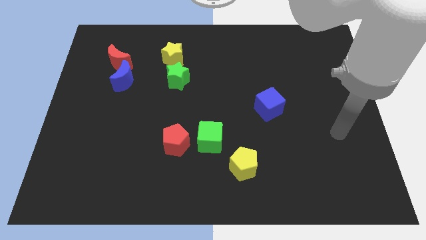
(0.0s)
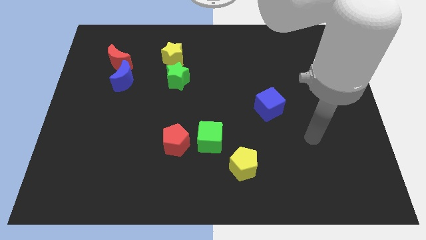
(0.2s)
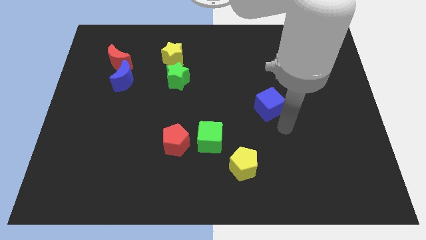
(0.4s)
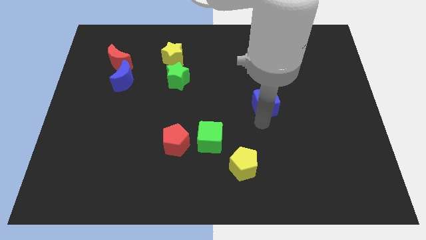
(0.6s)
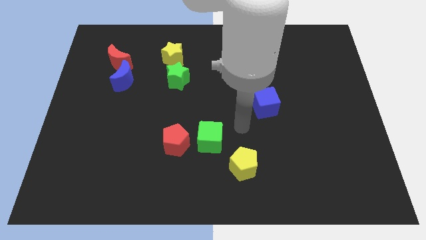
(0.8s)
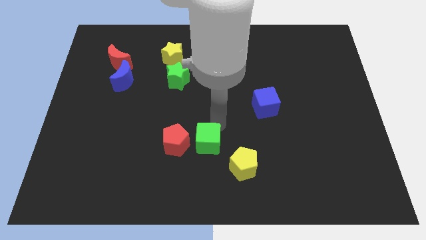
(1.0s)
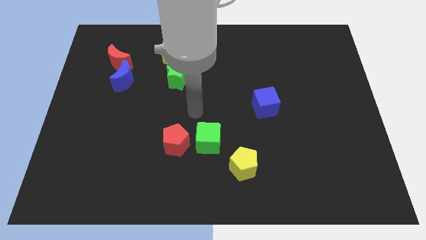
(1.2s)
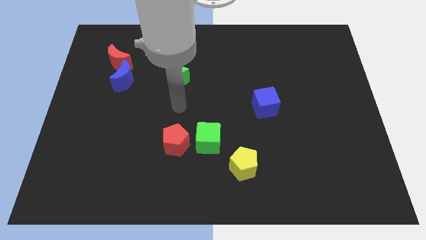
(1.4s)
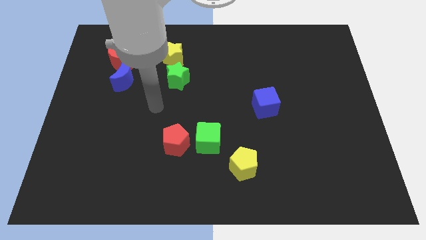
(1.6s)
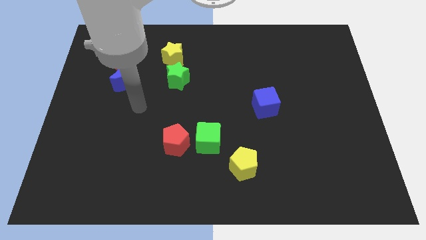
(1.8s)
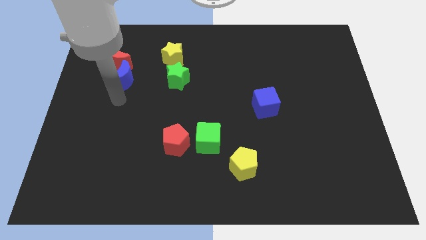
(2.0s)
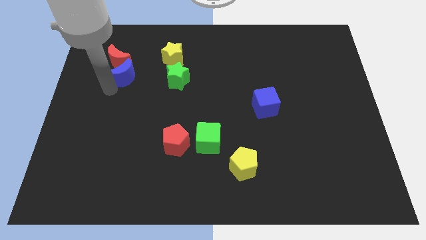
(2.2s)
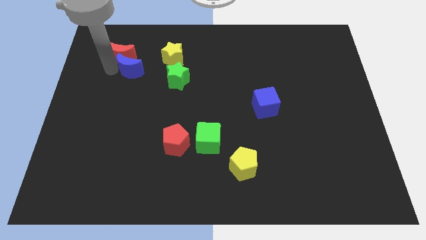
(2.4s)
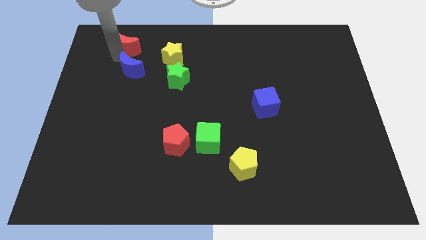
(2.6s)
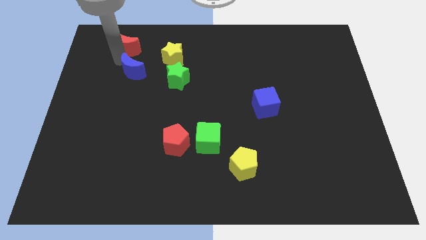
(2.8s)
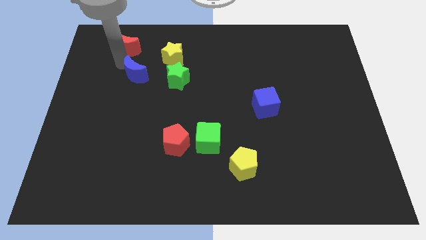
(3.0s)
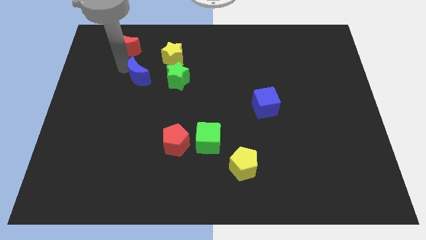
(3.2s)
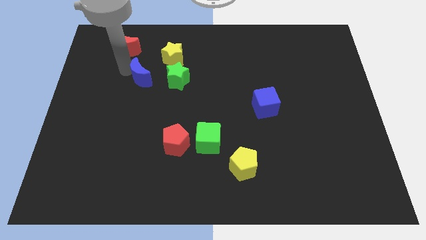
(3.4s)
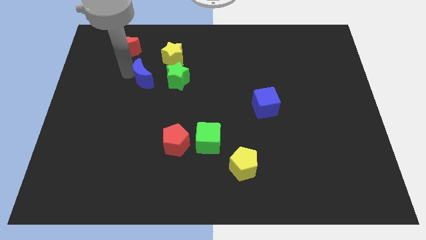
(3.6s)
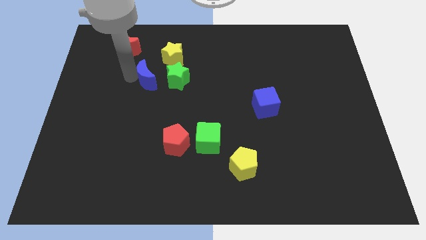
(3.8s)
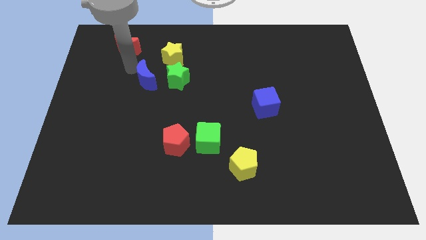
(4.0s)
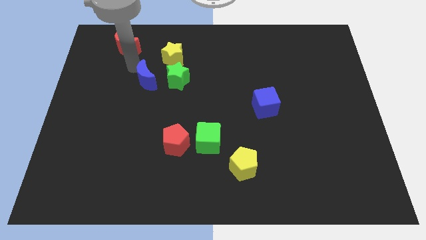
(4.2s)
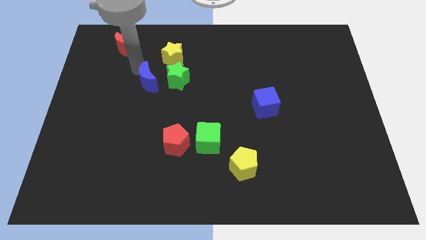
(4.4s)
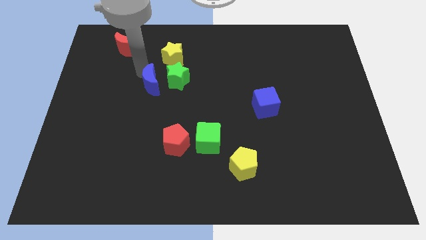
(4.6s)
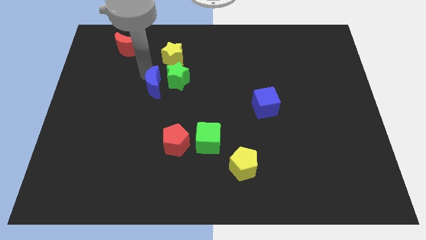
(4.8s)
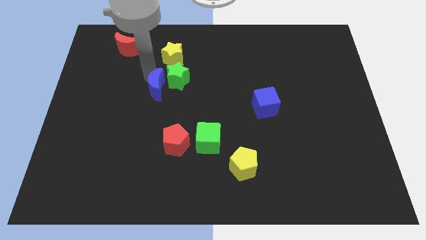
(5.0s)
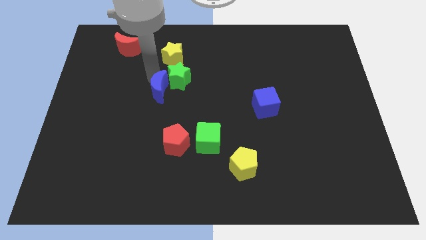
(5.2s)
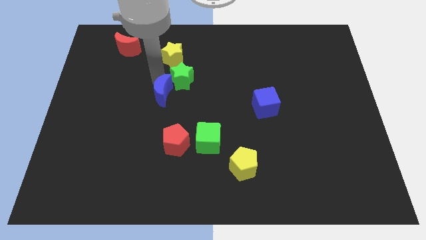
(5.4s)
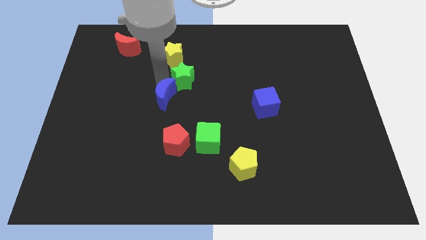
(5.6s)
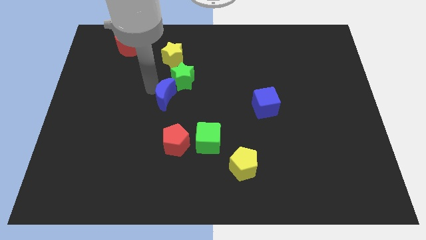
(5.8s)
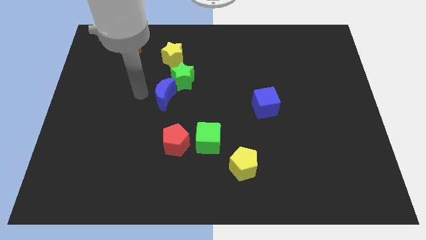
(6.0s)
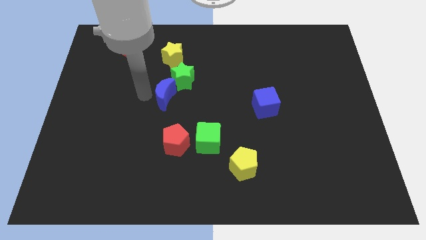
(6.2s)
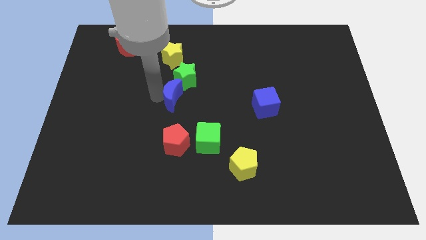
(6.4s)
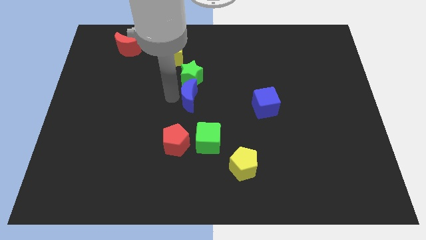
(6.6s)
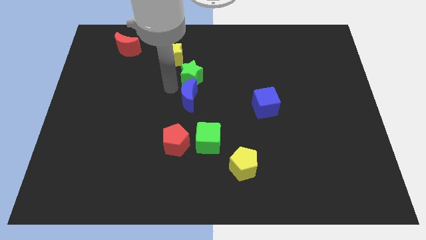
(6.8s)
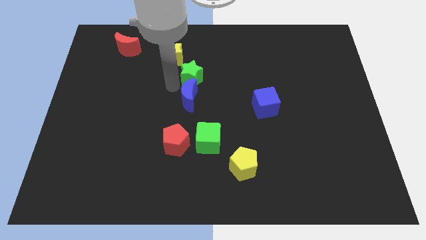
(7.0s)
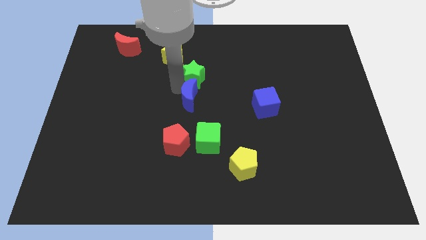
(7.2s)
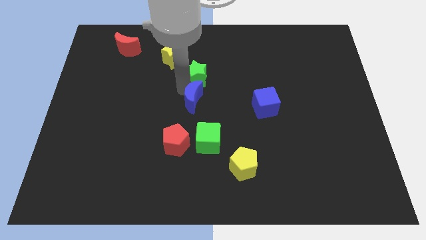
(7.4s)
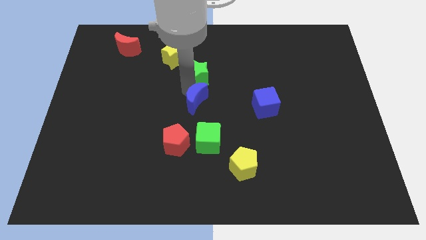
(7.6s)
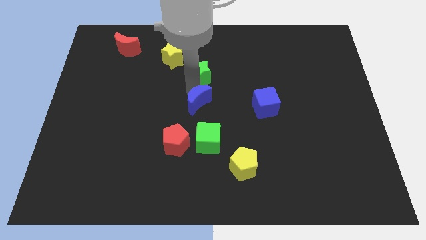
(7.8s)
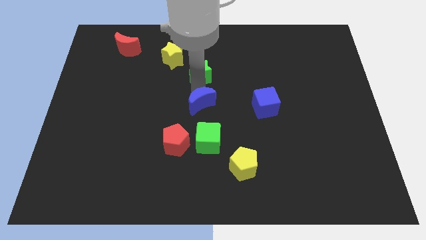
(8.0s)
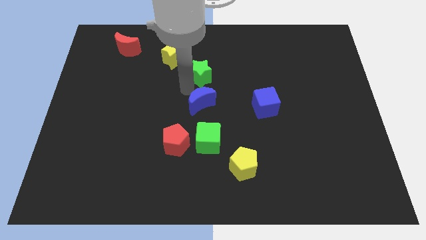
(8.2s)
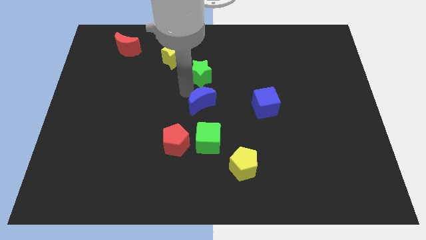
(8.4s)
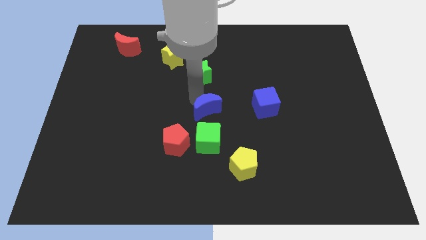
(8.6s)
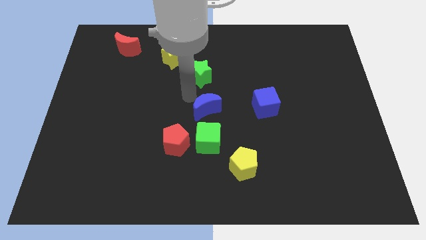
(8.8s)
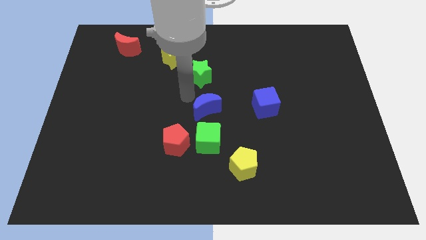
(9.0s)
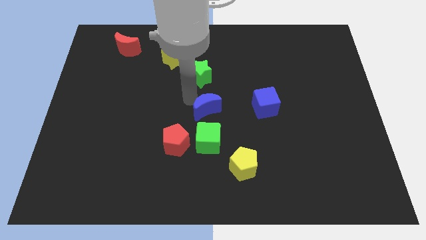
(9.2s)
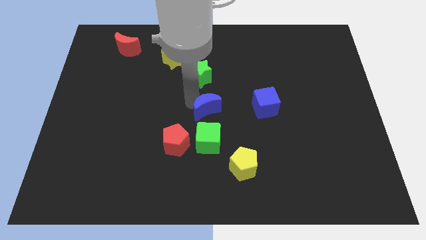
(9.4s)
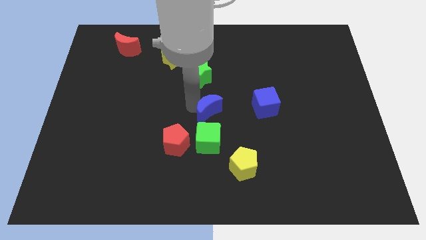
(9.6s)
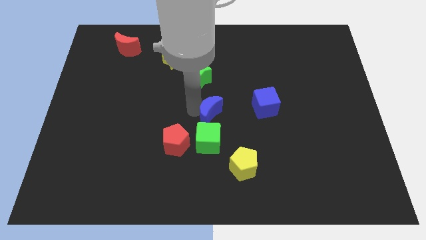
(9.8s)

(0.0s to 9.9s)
slide the blue moon downwards and to the right diagonally

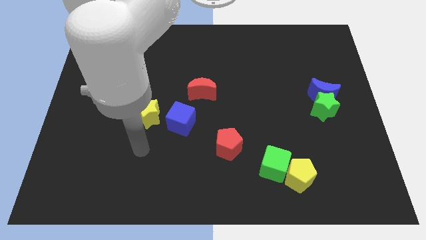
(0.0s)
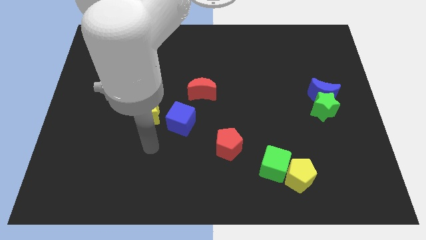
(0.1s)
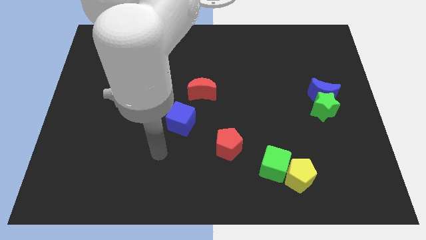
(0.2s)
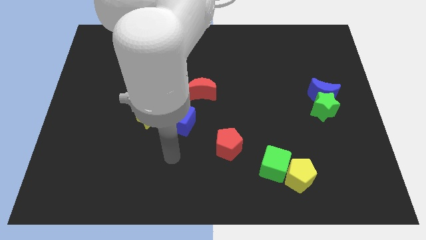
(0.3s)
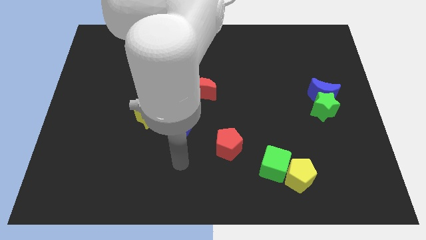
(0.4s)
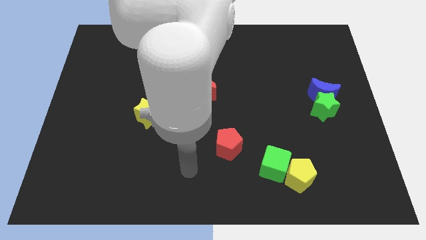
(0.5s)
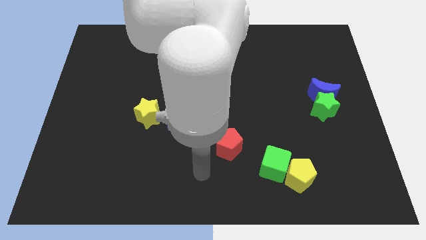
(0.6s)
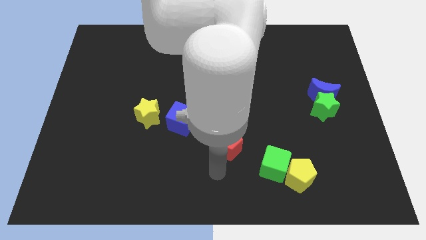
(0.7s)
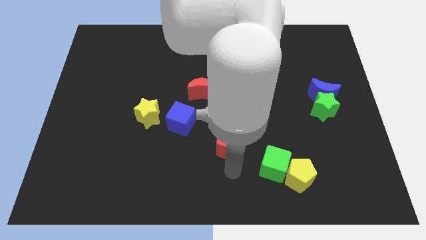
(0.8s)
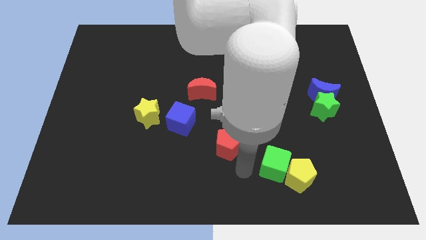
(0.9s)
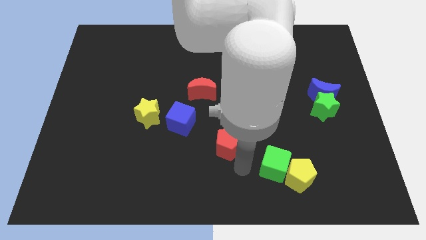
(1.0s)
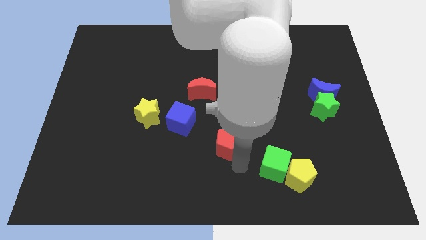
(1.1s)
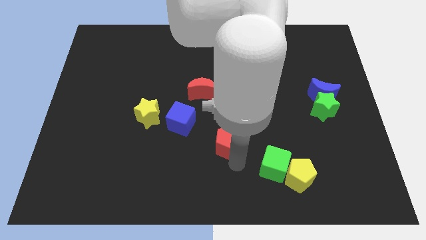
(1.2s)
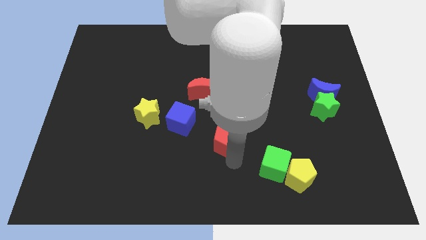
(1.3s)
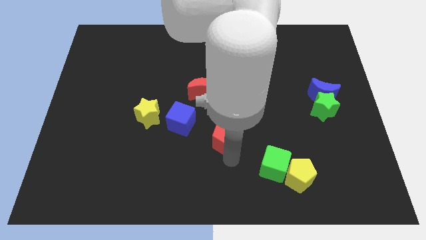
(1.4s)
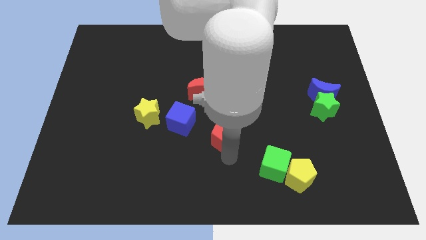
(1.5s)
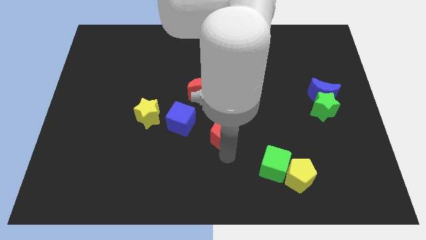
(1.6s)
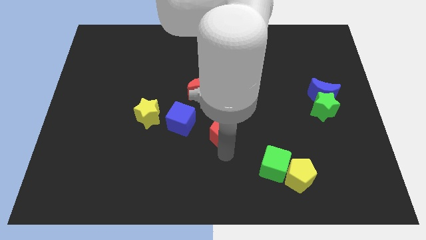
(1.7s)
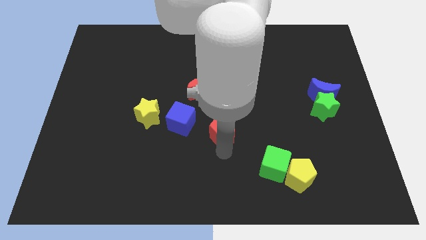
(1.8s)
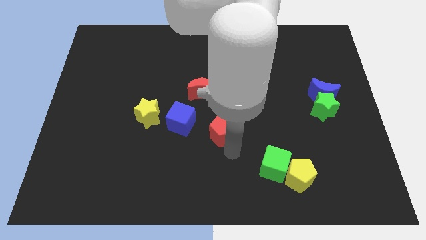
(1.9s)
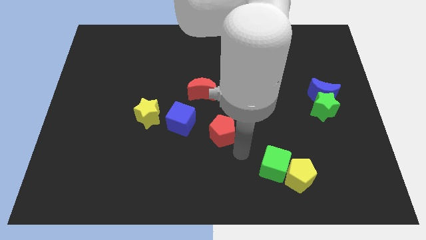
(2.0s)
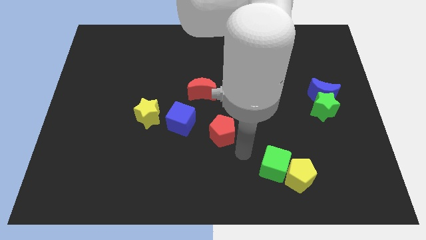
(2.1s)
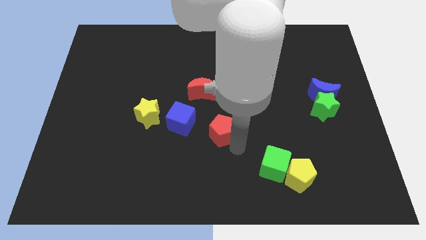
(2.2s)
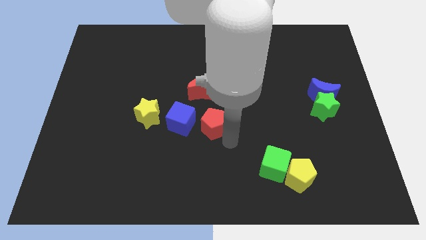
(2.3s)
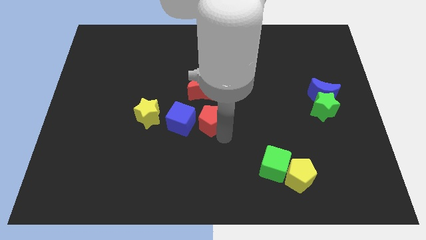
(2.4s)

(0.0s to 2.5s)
slide the red pentagon a little up and then to the left

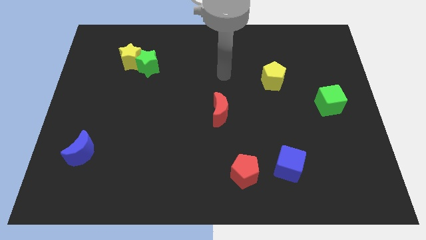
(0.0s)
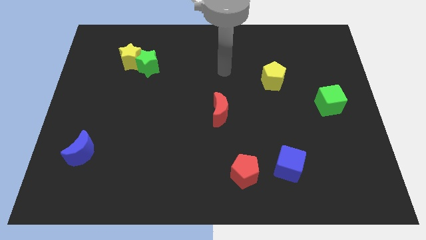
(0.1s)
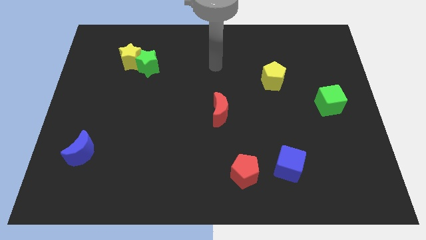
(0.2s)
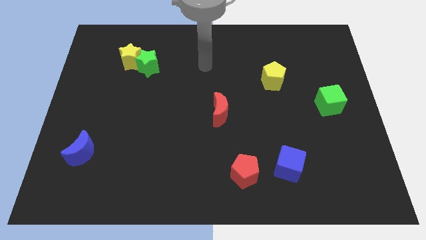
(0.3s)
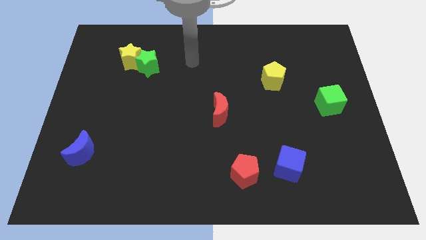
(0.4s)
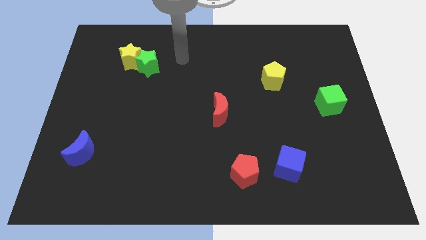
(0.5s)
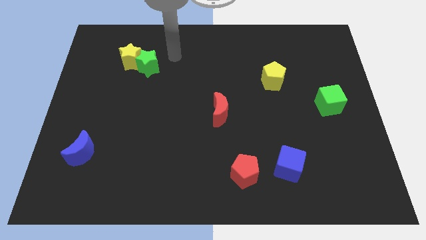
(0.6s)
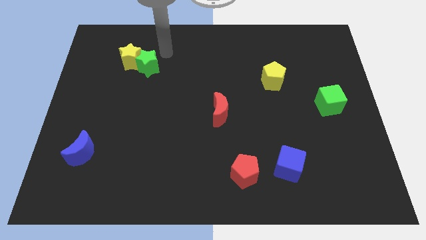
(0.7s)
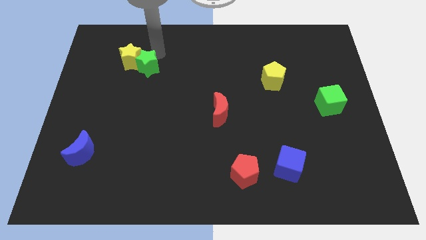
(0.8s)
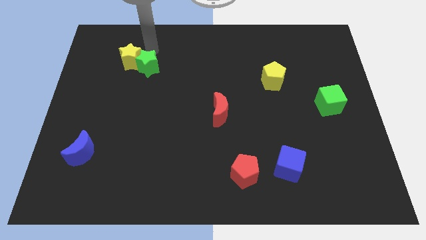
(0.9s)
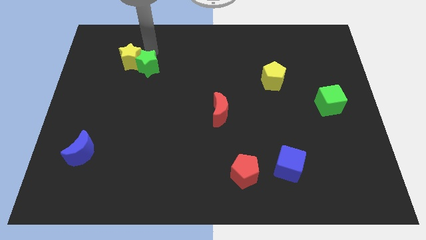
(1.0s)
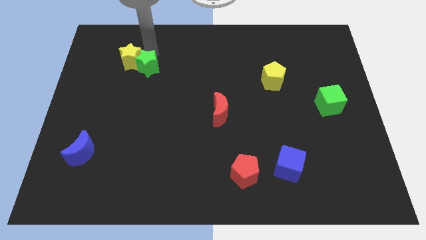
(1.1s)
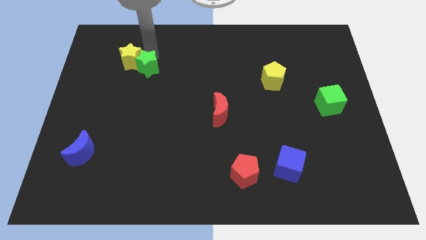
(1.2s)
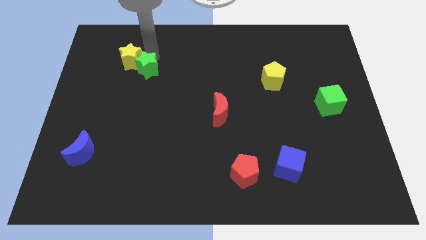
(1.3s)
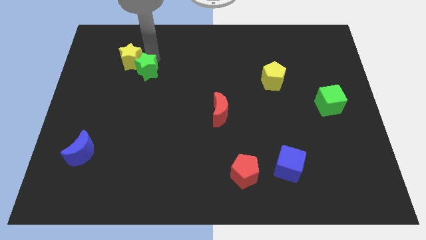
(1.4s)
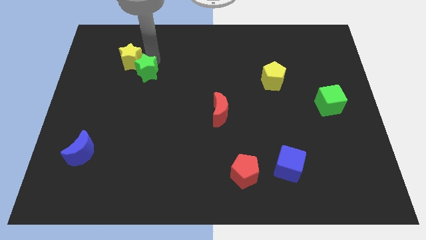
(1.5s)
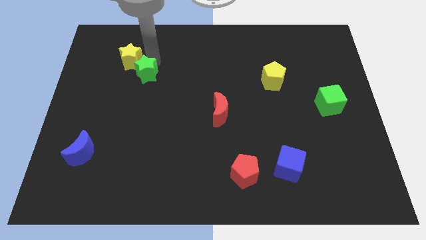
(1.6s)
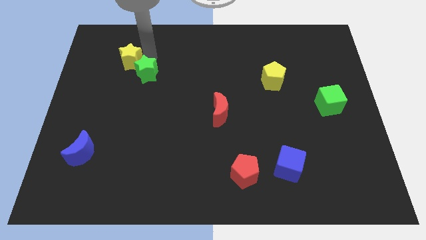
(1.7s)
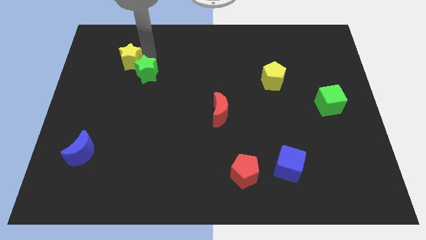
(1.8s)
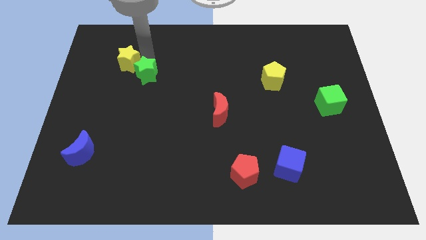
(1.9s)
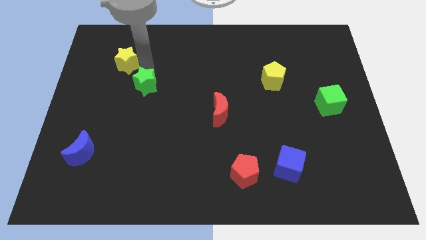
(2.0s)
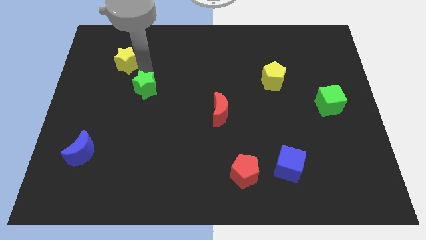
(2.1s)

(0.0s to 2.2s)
push the green star a bit down
